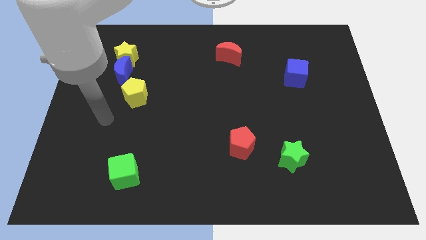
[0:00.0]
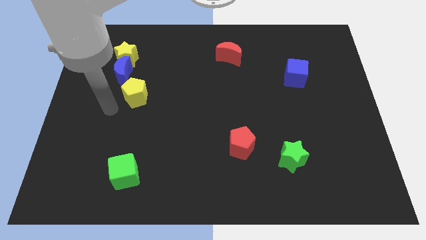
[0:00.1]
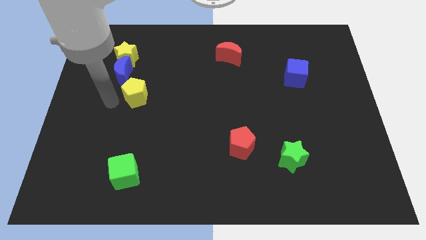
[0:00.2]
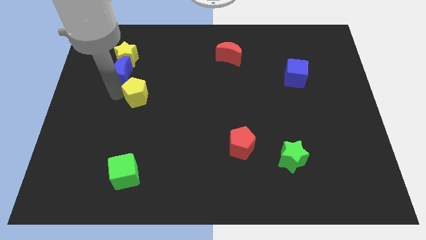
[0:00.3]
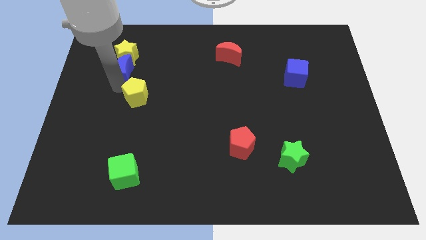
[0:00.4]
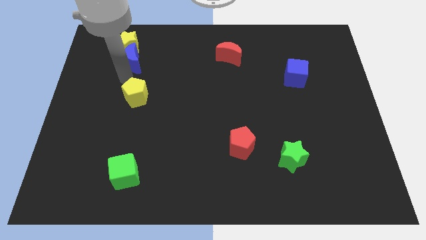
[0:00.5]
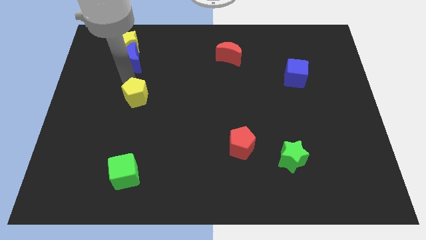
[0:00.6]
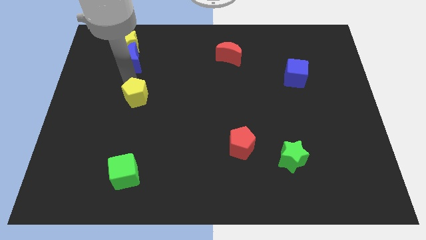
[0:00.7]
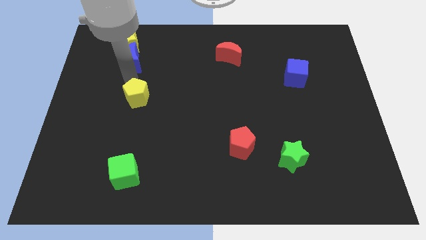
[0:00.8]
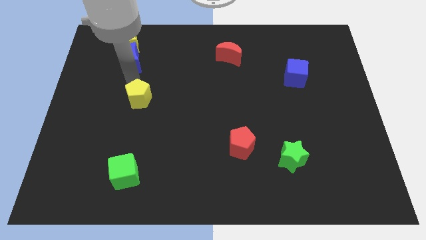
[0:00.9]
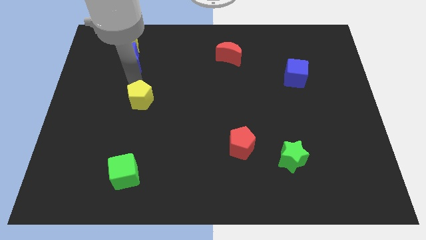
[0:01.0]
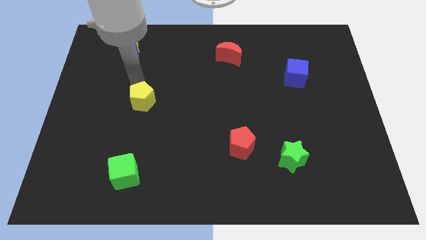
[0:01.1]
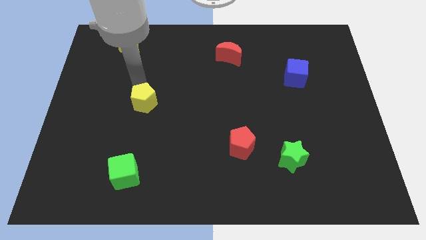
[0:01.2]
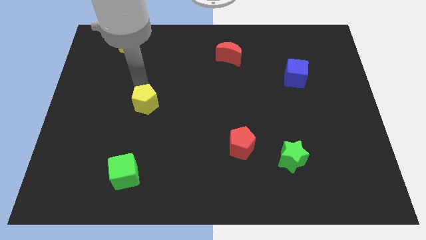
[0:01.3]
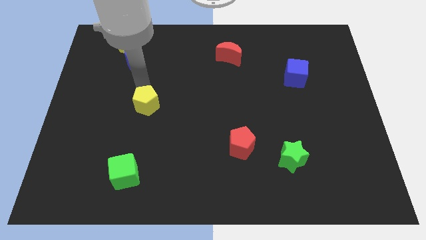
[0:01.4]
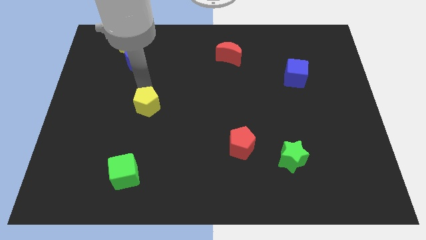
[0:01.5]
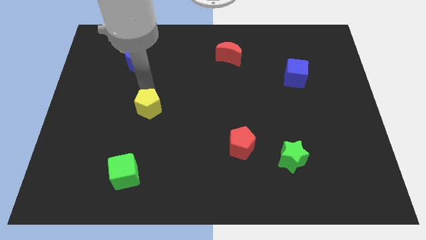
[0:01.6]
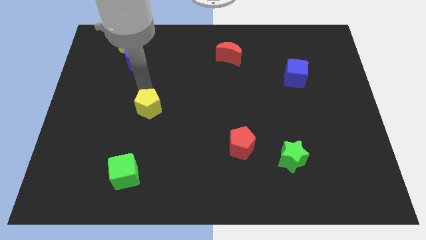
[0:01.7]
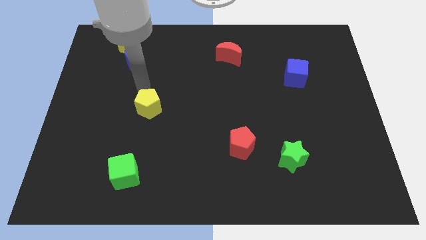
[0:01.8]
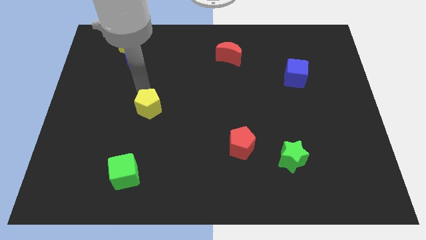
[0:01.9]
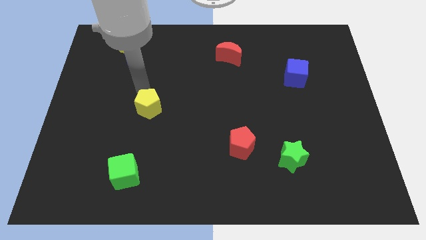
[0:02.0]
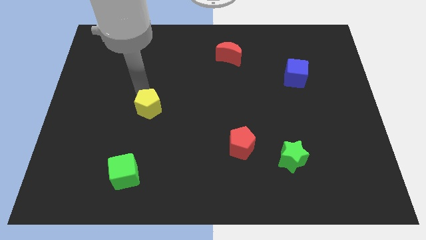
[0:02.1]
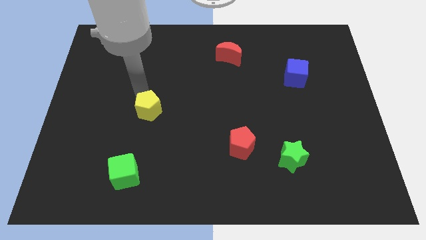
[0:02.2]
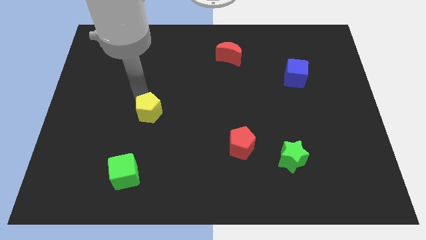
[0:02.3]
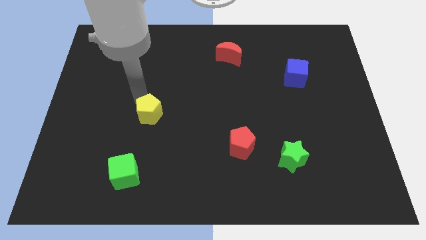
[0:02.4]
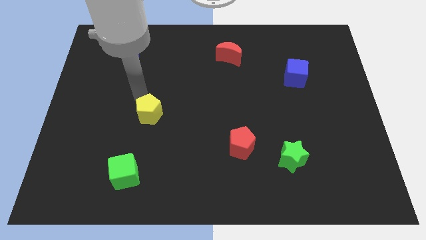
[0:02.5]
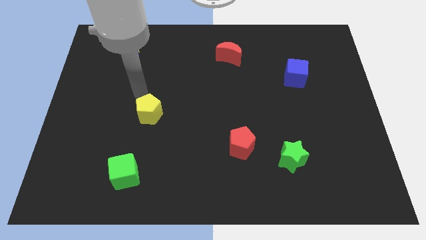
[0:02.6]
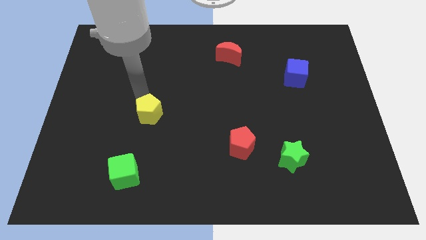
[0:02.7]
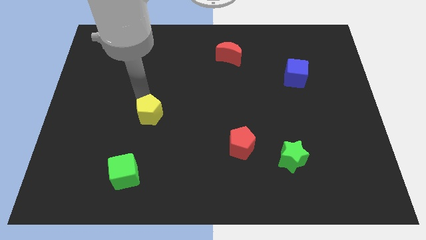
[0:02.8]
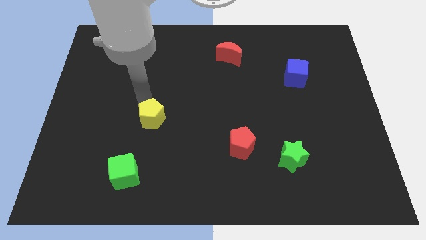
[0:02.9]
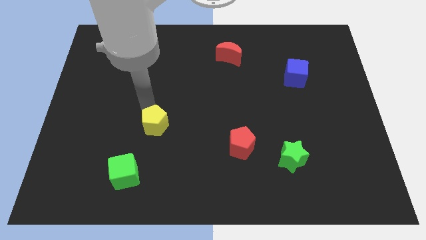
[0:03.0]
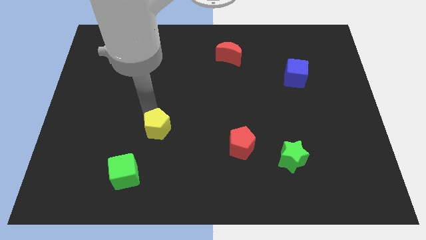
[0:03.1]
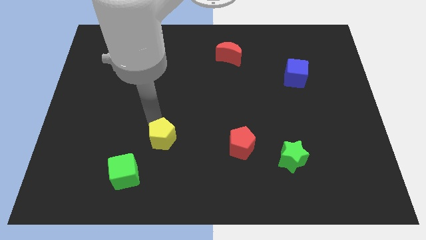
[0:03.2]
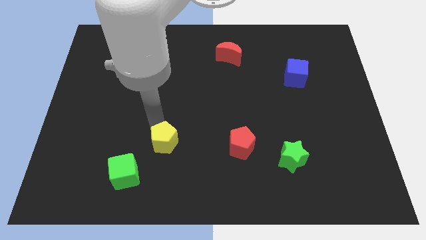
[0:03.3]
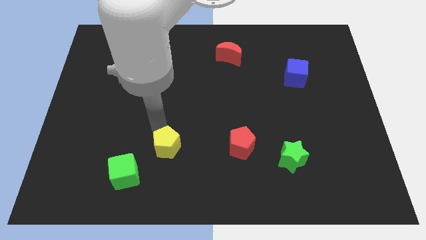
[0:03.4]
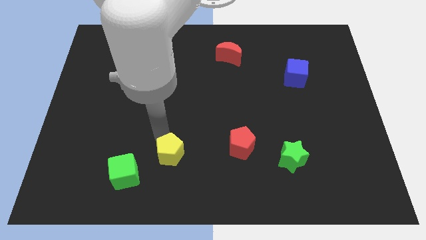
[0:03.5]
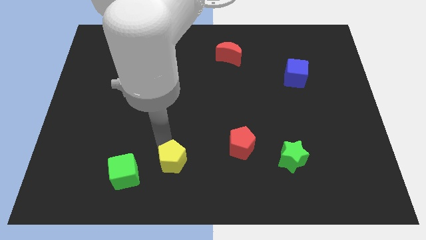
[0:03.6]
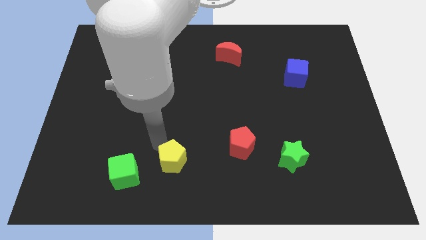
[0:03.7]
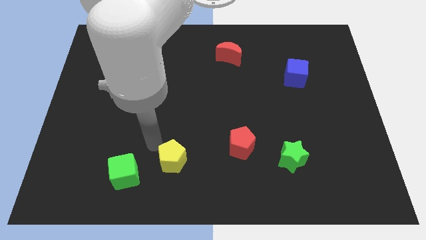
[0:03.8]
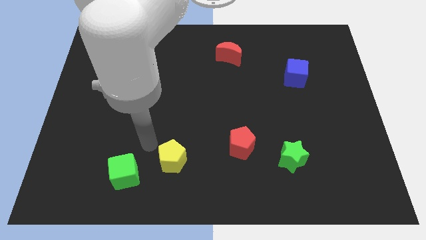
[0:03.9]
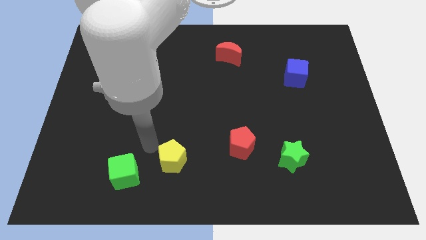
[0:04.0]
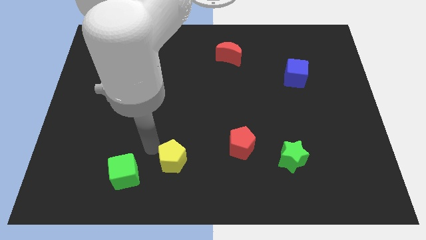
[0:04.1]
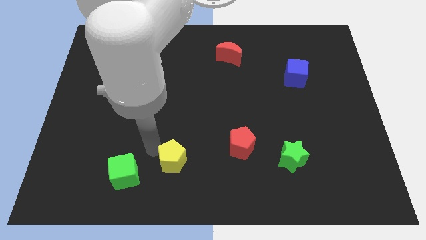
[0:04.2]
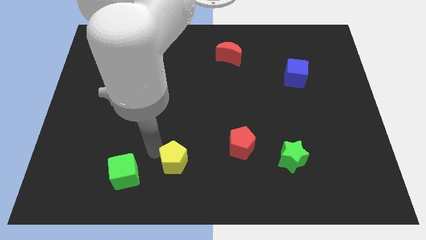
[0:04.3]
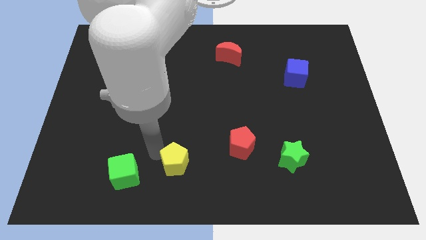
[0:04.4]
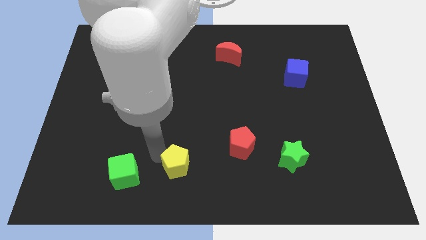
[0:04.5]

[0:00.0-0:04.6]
slide the yellow pentagon to the bottom side

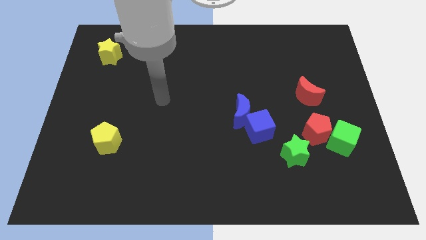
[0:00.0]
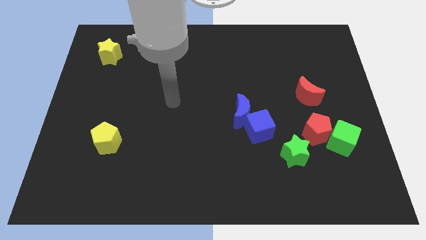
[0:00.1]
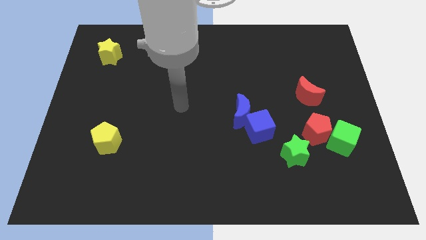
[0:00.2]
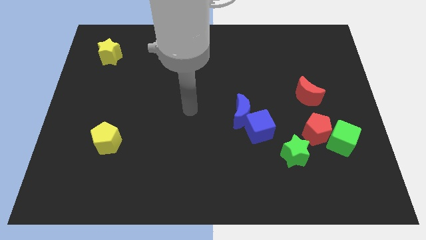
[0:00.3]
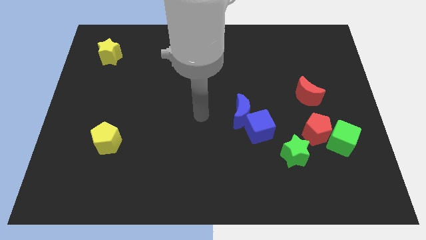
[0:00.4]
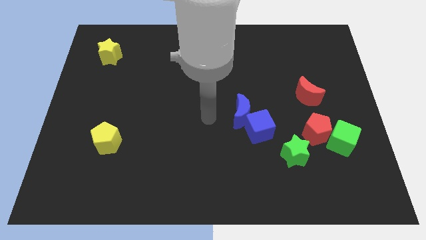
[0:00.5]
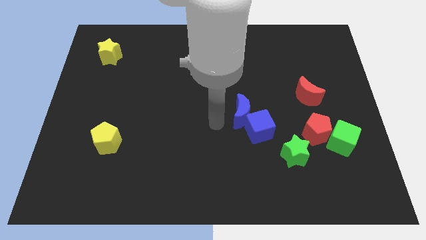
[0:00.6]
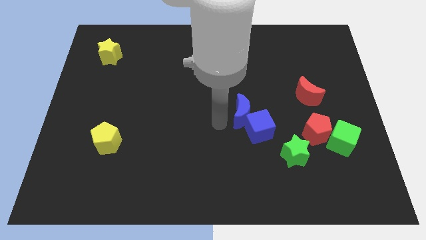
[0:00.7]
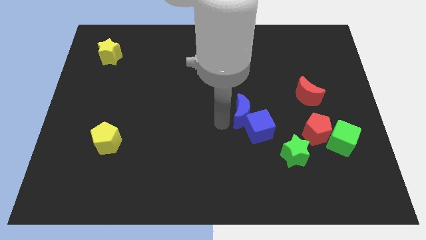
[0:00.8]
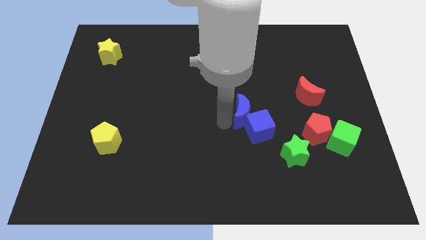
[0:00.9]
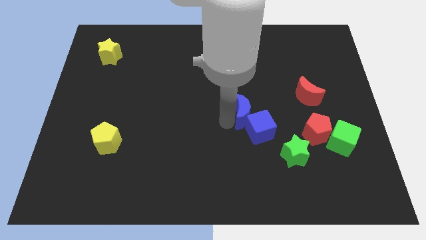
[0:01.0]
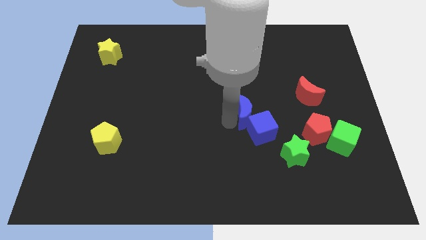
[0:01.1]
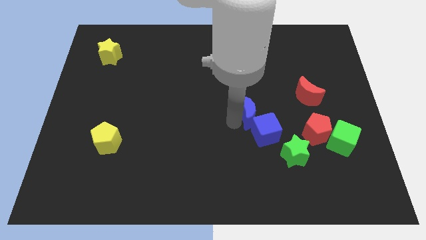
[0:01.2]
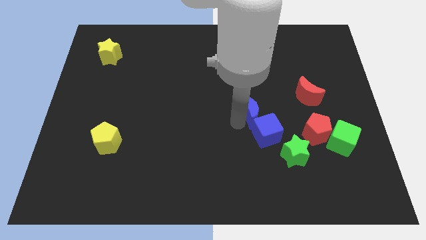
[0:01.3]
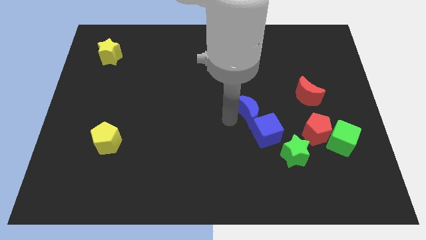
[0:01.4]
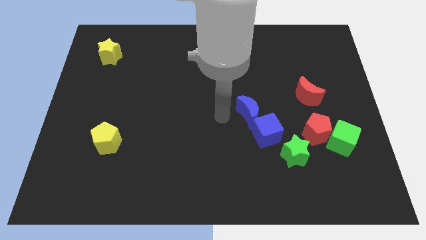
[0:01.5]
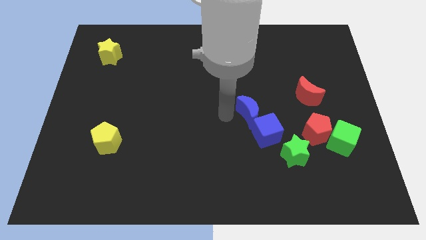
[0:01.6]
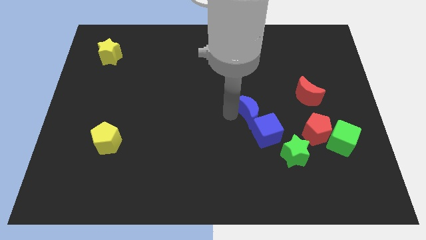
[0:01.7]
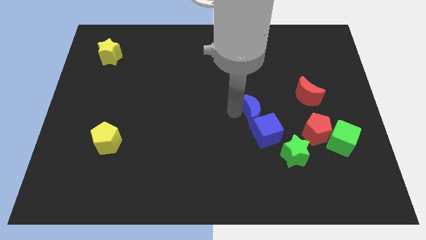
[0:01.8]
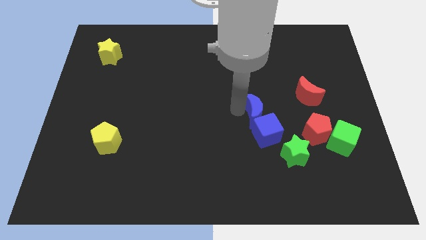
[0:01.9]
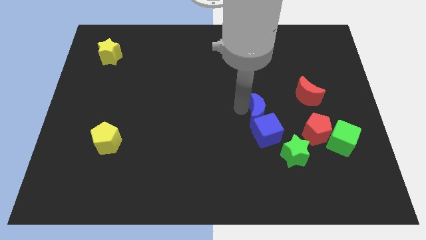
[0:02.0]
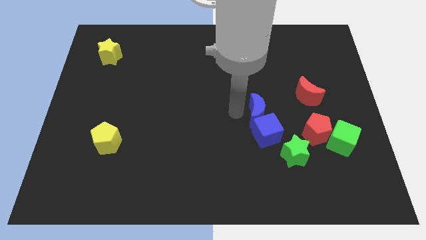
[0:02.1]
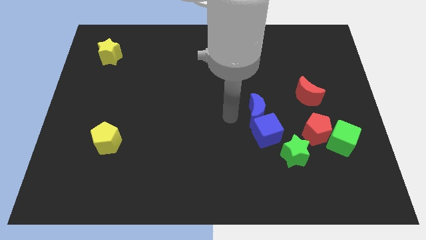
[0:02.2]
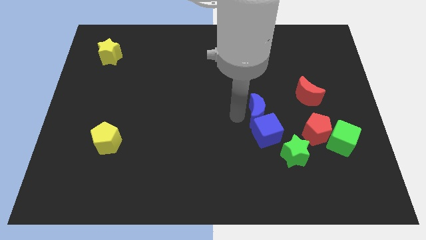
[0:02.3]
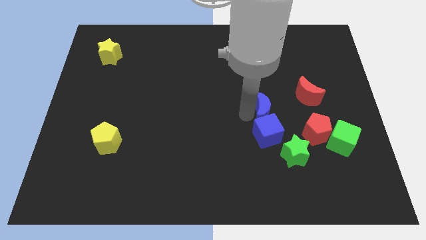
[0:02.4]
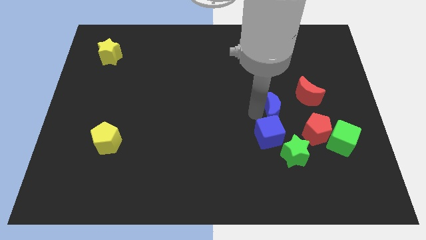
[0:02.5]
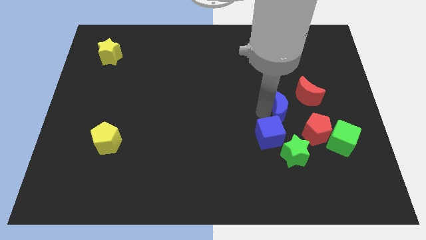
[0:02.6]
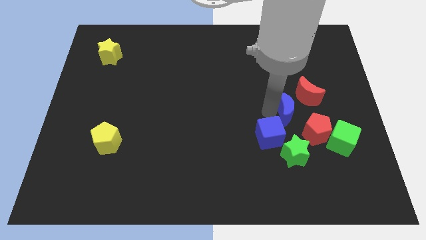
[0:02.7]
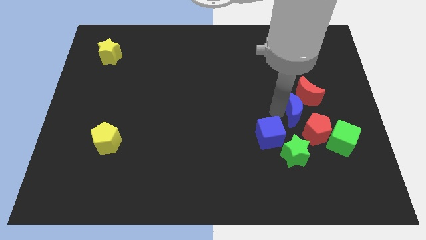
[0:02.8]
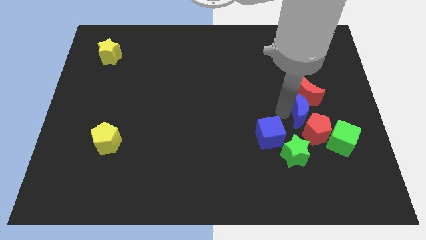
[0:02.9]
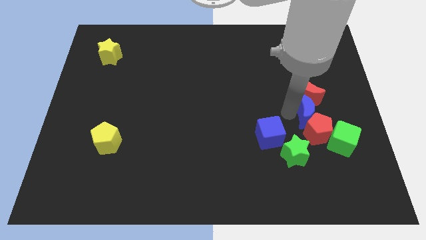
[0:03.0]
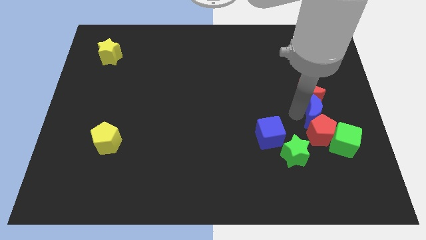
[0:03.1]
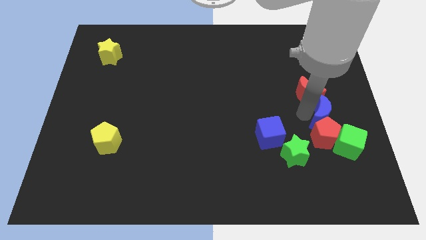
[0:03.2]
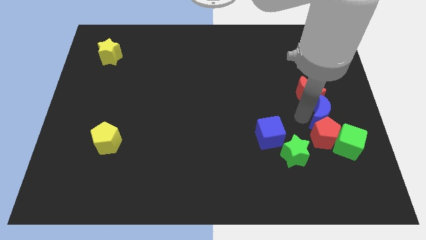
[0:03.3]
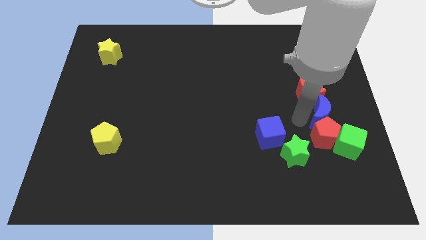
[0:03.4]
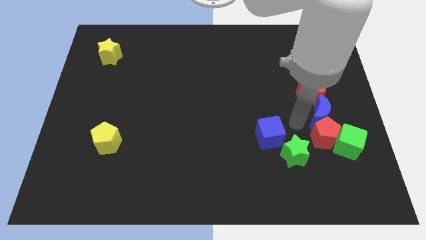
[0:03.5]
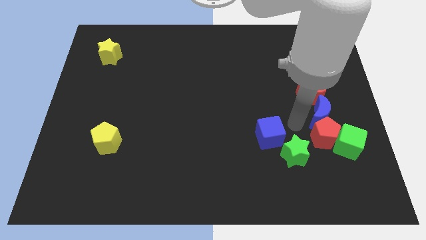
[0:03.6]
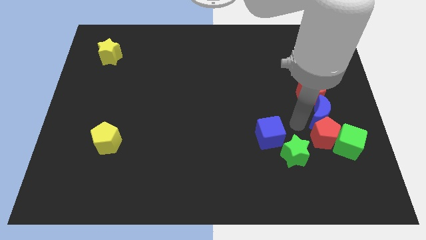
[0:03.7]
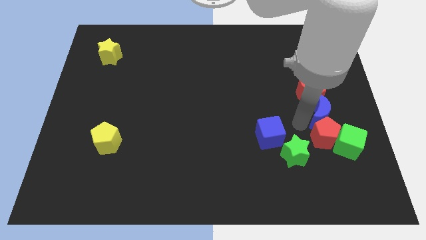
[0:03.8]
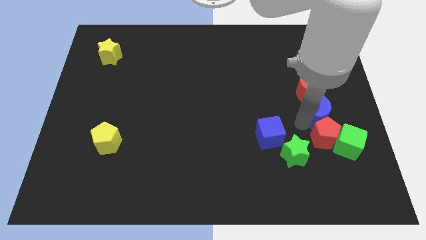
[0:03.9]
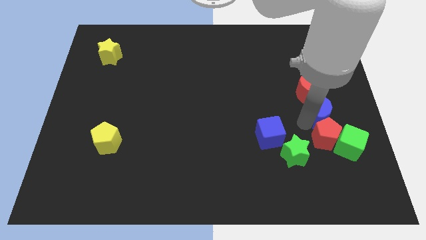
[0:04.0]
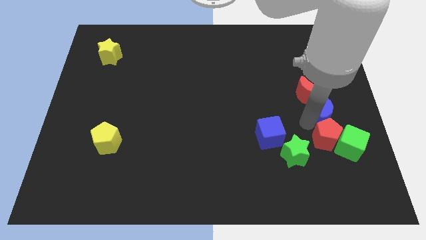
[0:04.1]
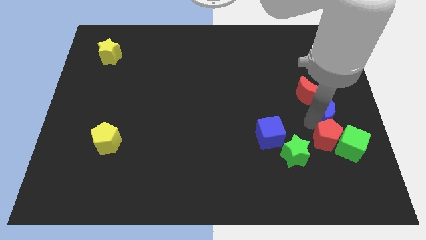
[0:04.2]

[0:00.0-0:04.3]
slide the blue moon to the right side
